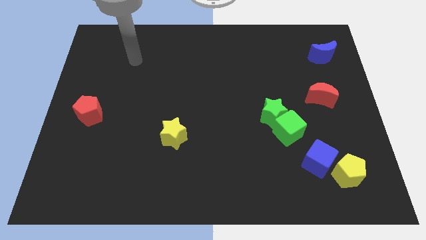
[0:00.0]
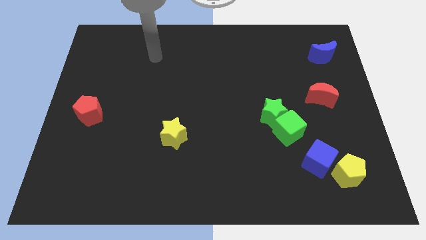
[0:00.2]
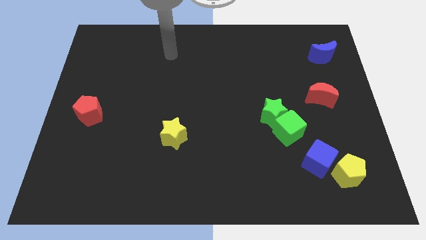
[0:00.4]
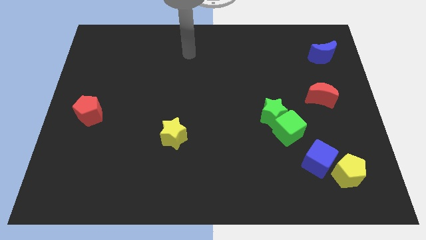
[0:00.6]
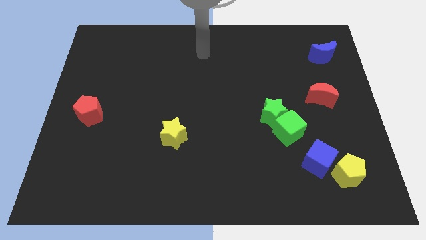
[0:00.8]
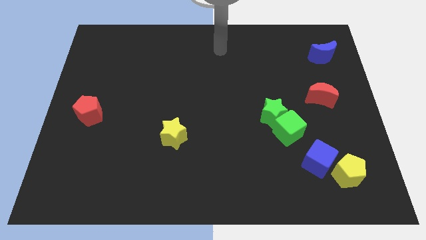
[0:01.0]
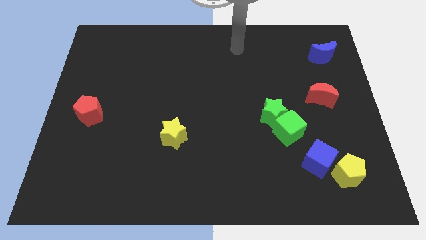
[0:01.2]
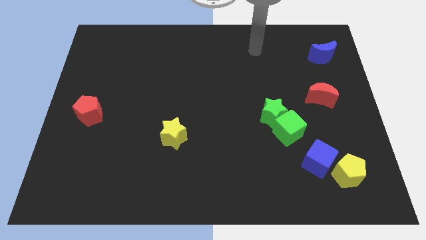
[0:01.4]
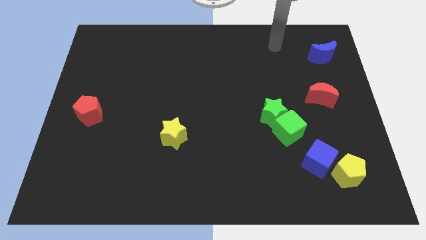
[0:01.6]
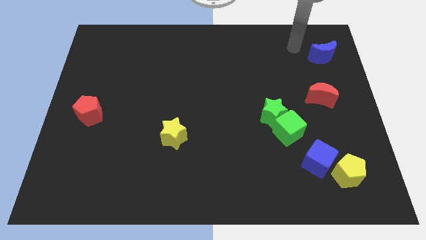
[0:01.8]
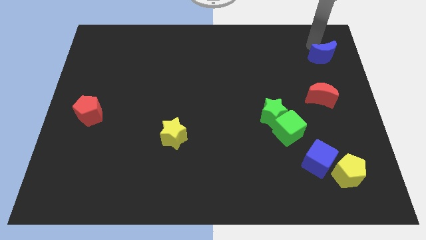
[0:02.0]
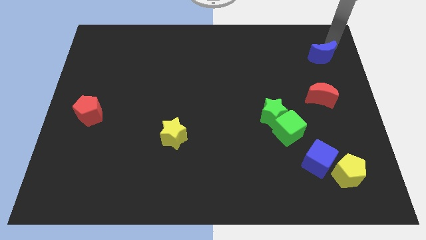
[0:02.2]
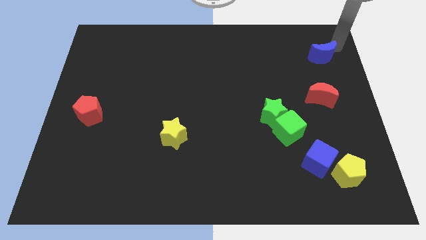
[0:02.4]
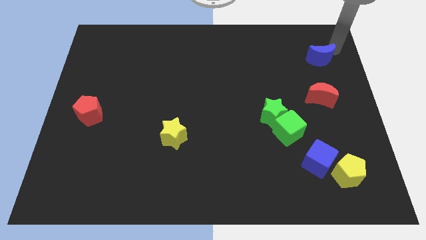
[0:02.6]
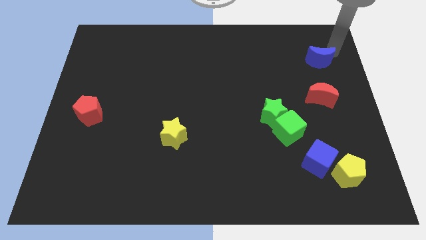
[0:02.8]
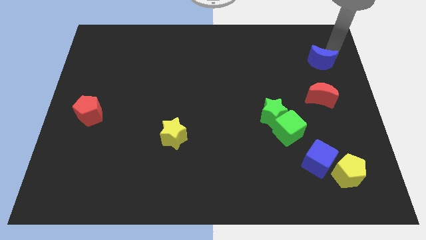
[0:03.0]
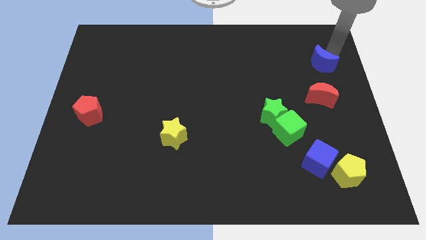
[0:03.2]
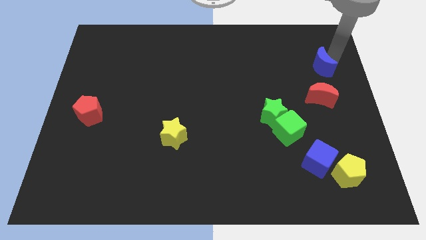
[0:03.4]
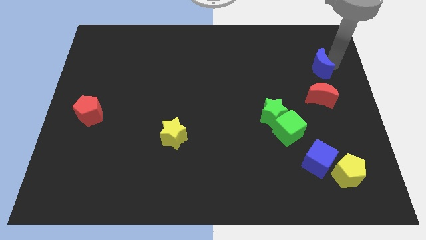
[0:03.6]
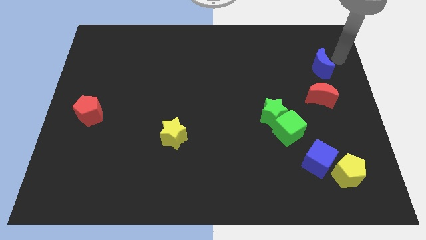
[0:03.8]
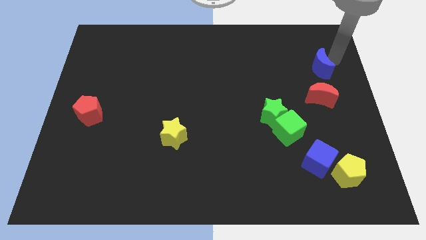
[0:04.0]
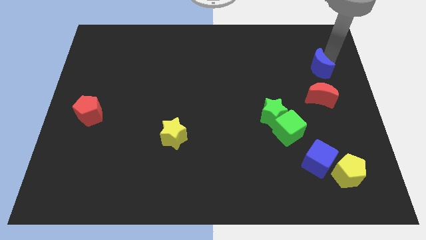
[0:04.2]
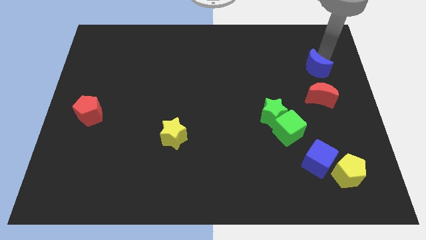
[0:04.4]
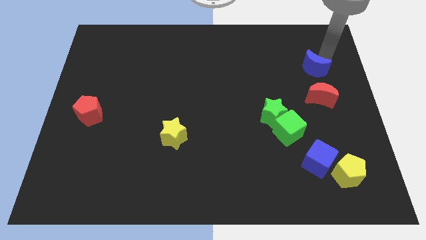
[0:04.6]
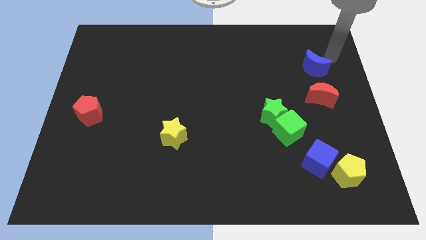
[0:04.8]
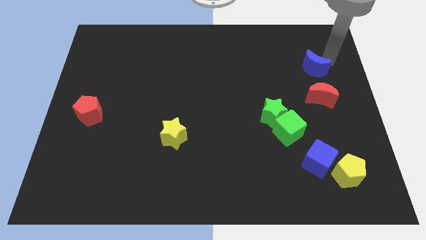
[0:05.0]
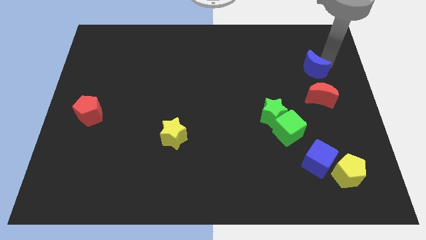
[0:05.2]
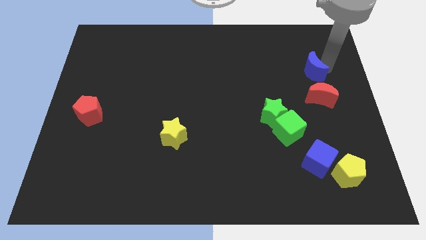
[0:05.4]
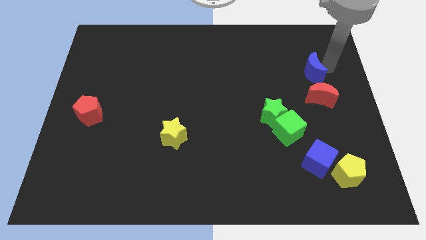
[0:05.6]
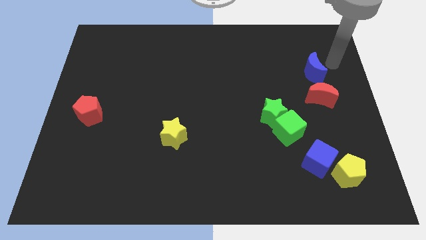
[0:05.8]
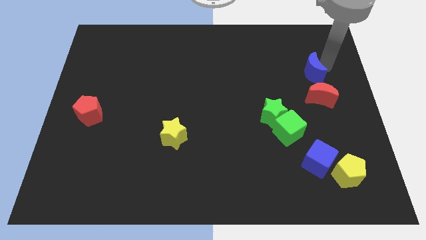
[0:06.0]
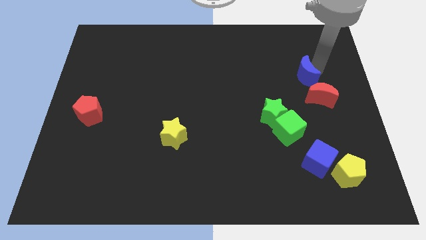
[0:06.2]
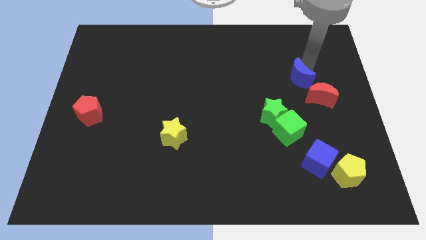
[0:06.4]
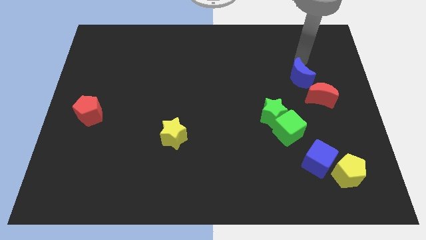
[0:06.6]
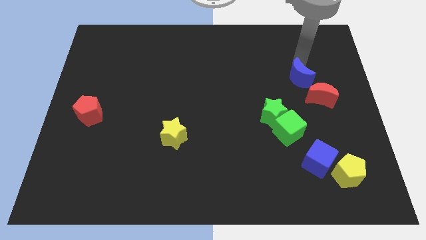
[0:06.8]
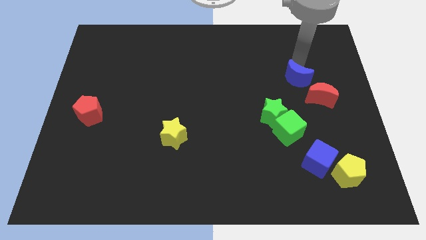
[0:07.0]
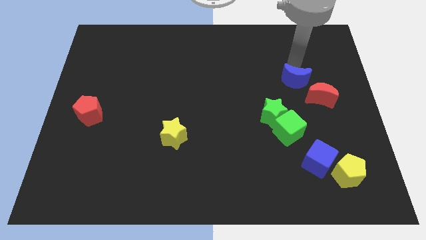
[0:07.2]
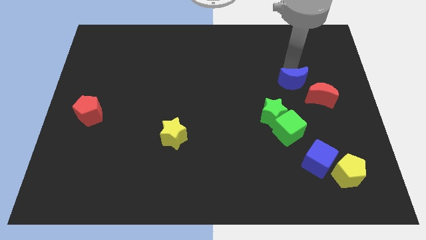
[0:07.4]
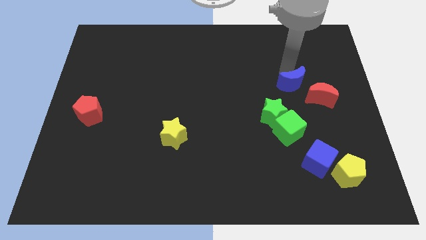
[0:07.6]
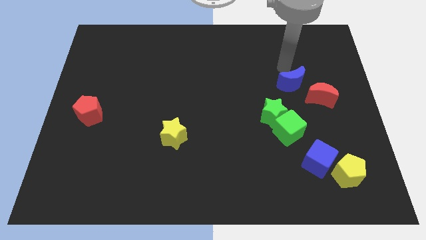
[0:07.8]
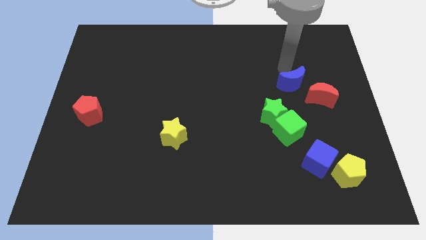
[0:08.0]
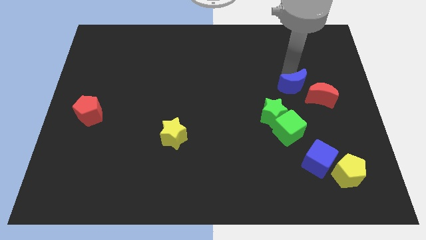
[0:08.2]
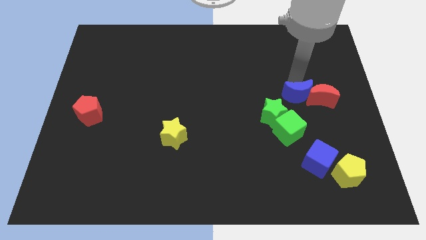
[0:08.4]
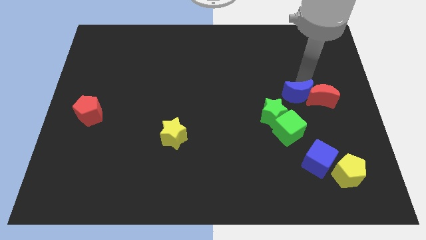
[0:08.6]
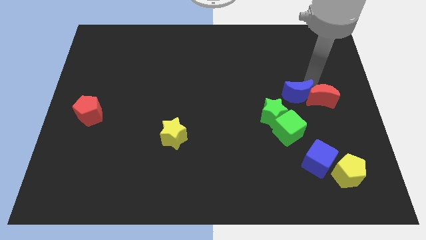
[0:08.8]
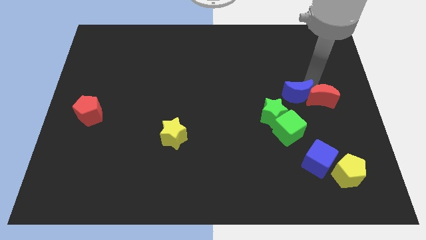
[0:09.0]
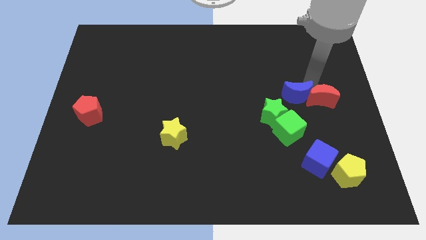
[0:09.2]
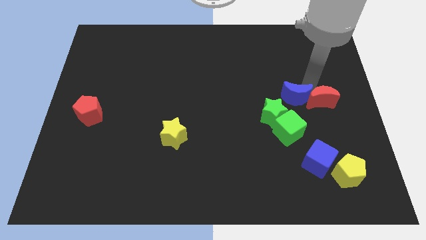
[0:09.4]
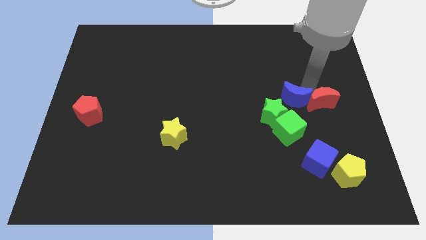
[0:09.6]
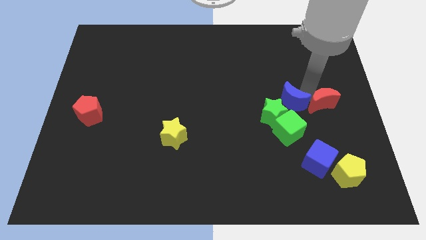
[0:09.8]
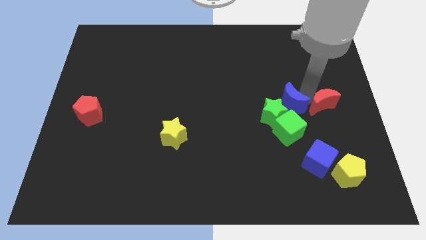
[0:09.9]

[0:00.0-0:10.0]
push the blue moon next to the green star

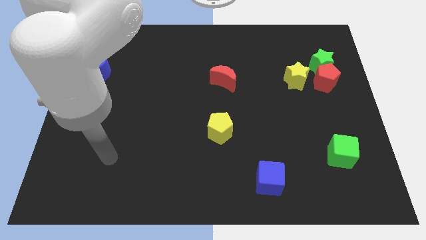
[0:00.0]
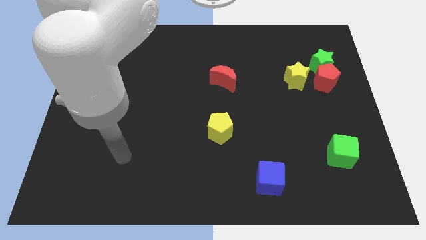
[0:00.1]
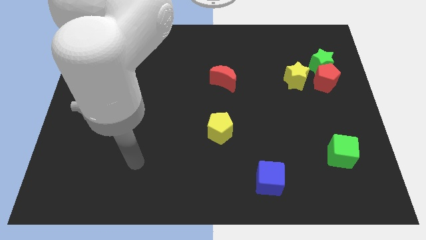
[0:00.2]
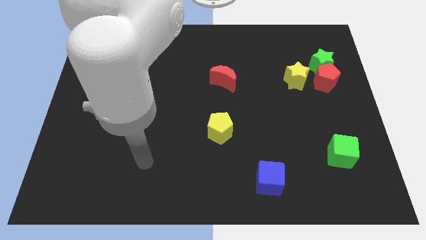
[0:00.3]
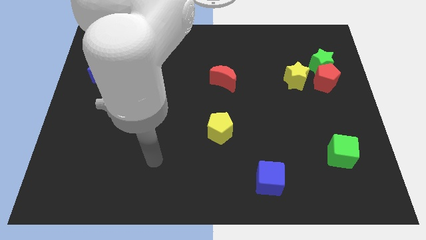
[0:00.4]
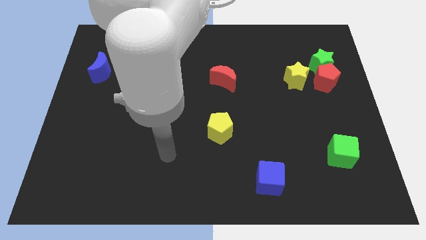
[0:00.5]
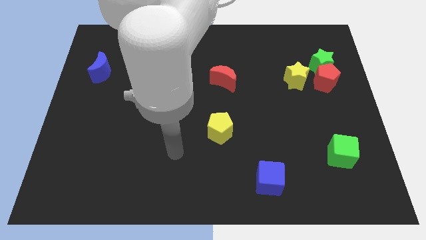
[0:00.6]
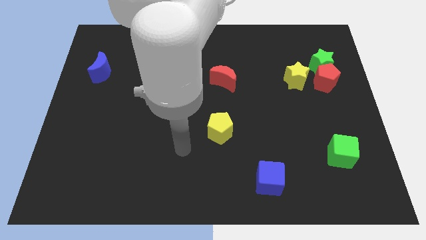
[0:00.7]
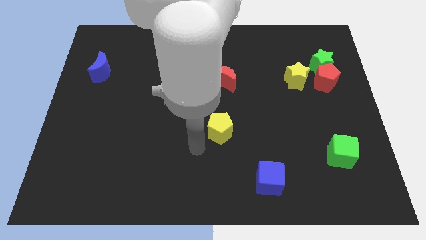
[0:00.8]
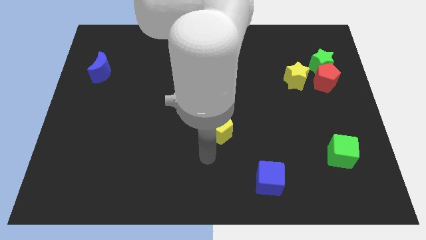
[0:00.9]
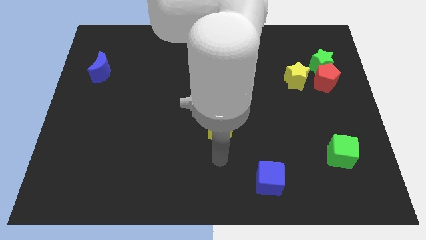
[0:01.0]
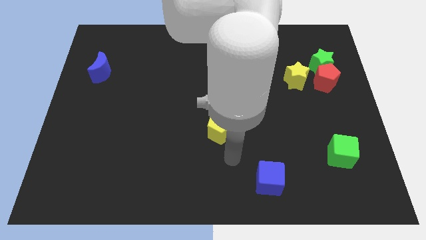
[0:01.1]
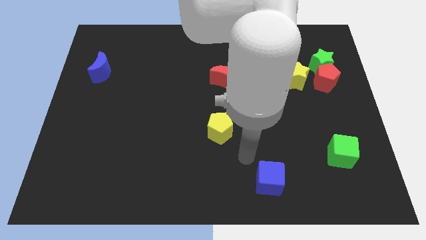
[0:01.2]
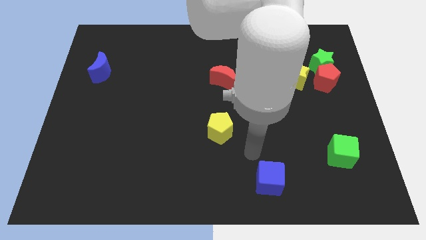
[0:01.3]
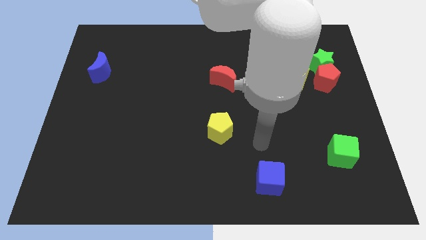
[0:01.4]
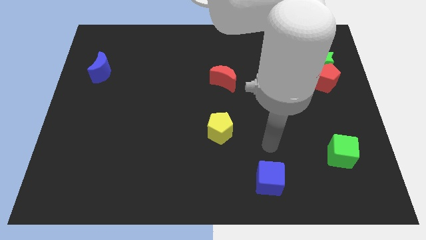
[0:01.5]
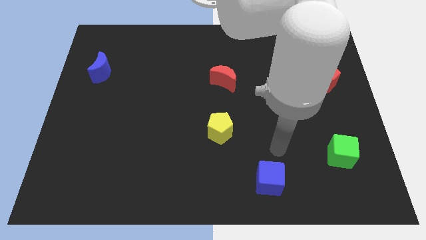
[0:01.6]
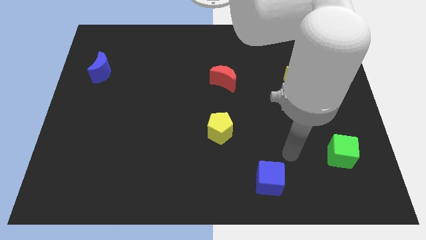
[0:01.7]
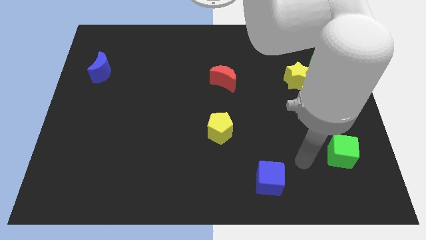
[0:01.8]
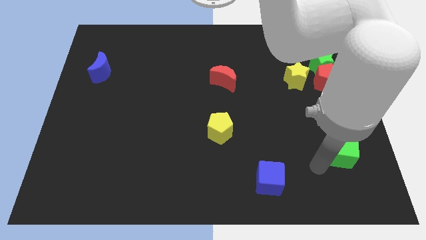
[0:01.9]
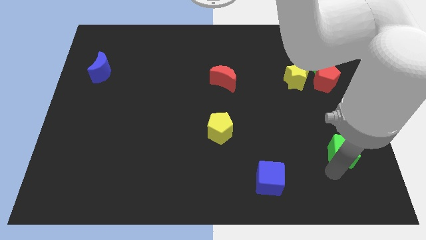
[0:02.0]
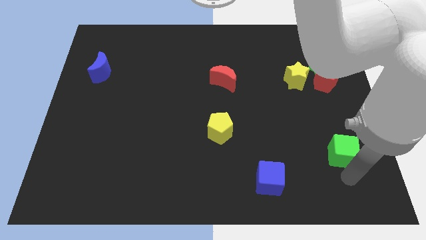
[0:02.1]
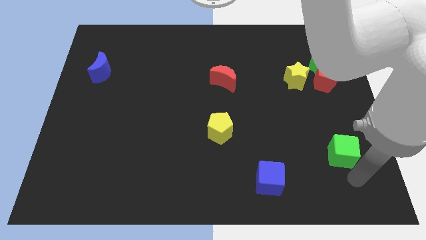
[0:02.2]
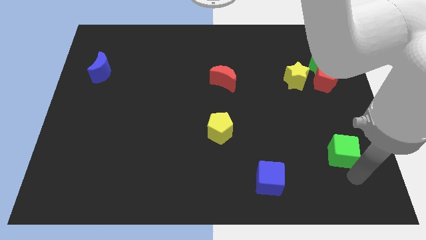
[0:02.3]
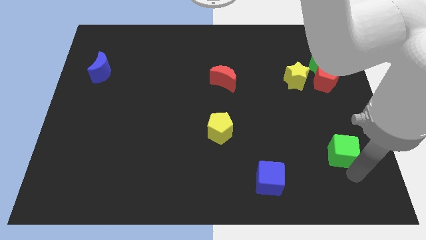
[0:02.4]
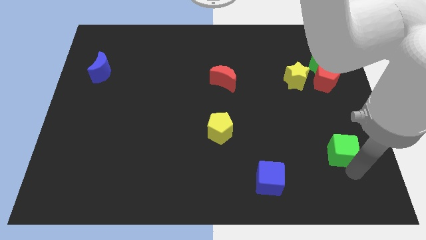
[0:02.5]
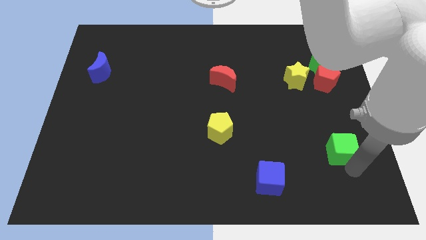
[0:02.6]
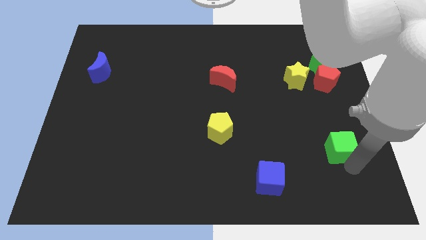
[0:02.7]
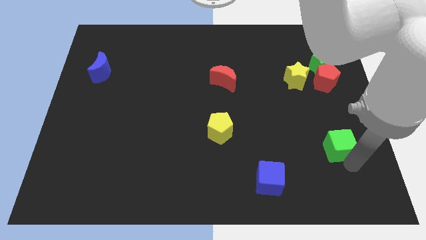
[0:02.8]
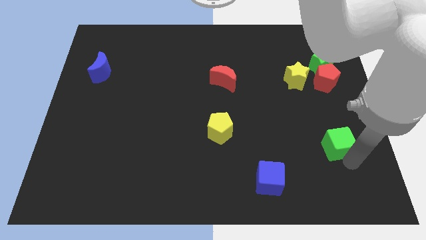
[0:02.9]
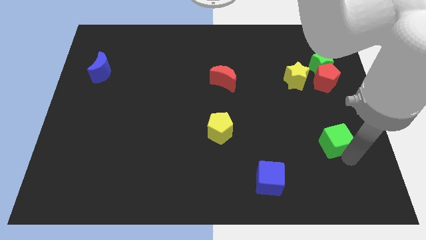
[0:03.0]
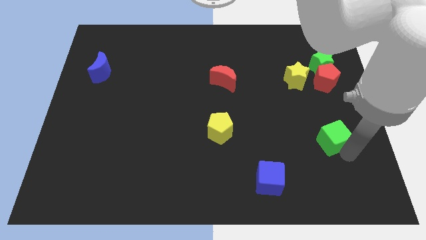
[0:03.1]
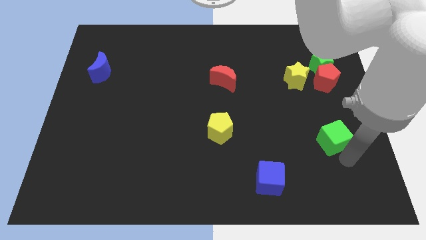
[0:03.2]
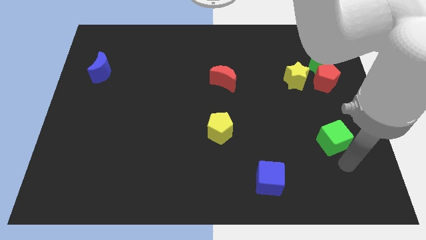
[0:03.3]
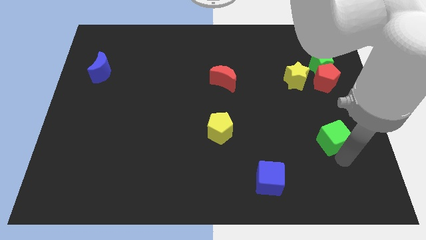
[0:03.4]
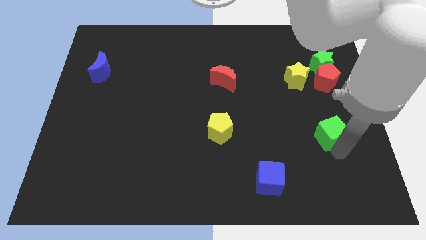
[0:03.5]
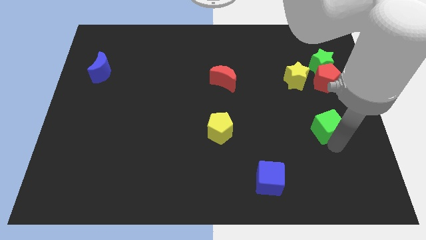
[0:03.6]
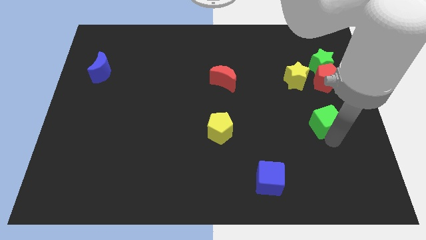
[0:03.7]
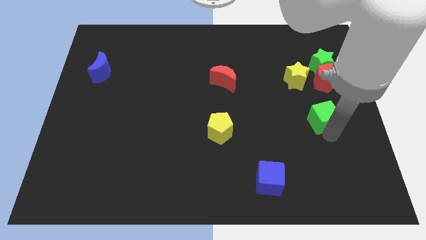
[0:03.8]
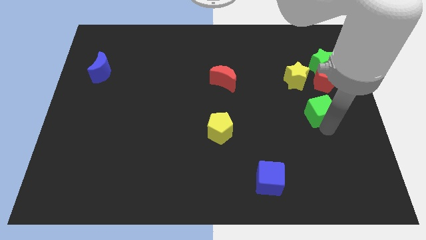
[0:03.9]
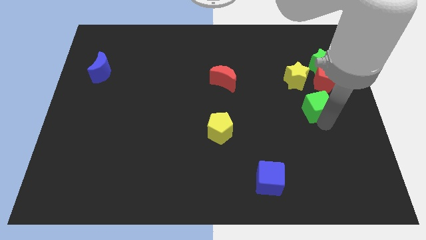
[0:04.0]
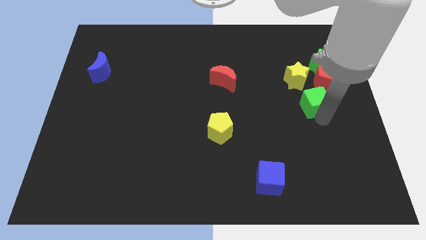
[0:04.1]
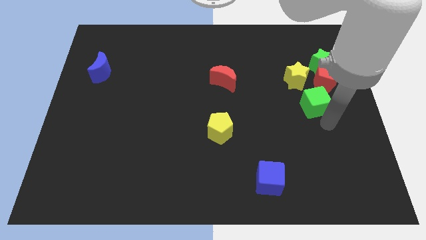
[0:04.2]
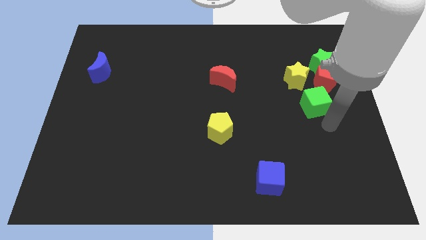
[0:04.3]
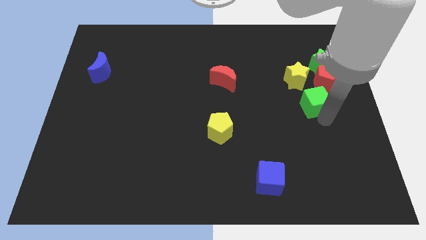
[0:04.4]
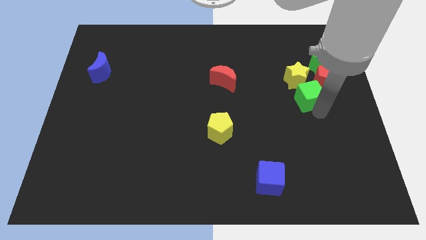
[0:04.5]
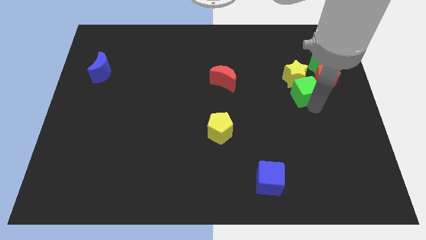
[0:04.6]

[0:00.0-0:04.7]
put the green cube towards the yellow star
